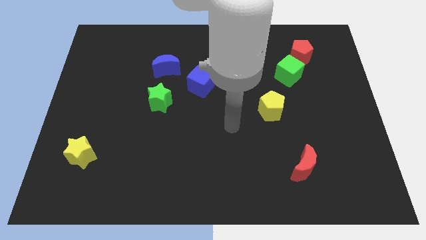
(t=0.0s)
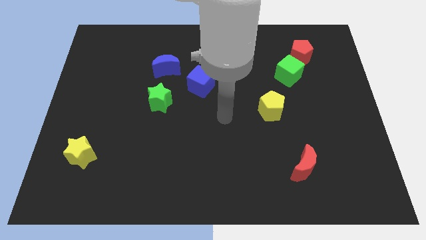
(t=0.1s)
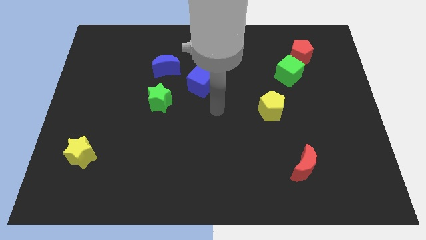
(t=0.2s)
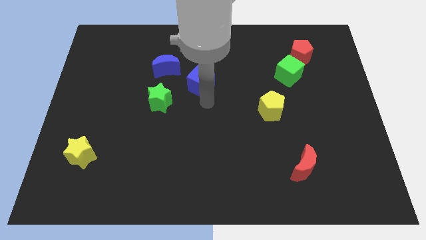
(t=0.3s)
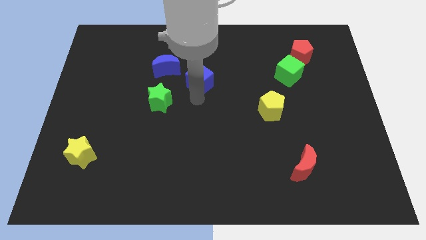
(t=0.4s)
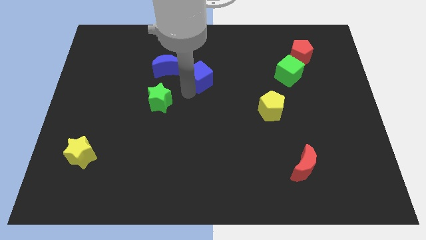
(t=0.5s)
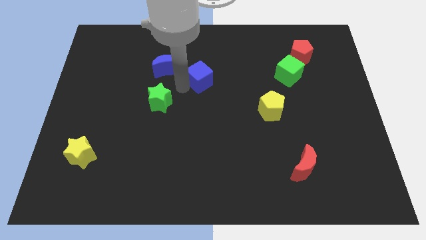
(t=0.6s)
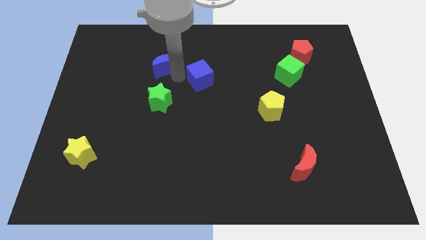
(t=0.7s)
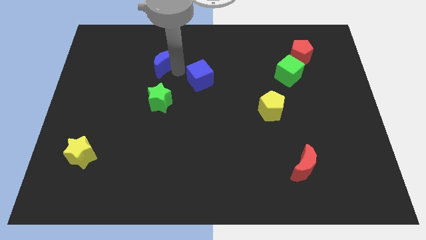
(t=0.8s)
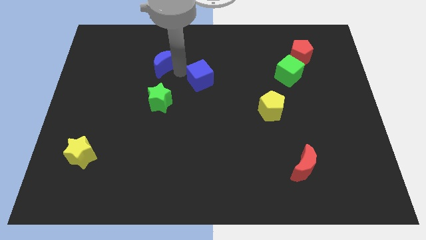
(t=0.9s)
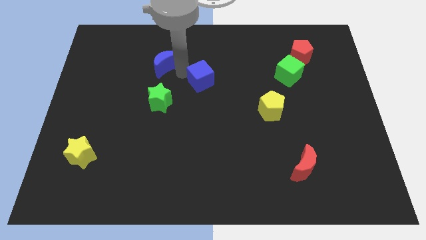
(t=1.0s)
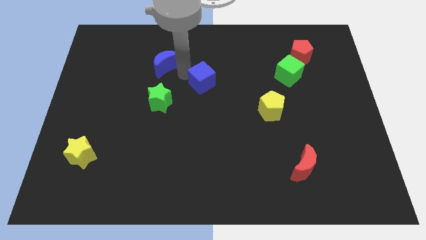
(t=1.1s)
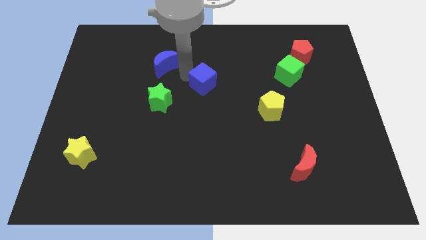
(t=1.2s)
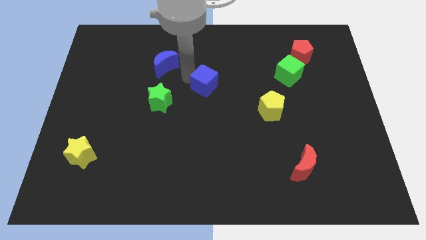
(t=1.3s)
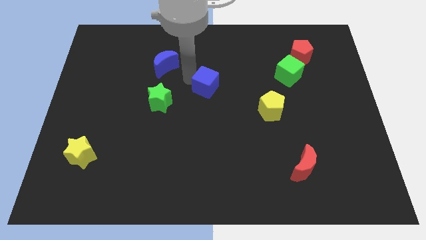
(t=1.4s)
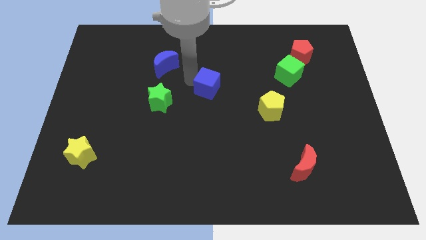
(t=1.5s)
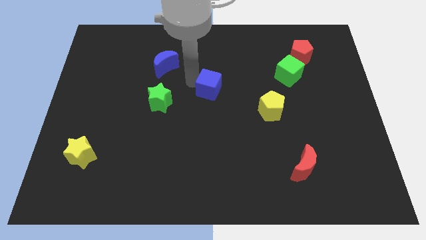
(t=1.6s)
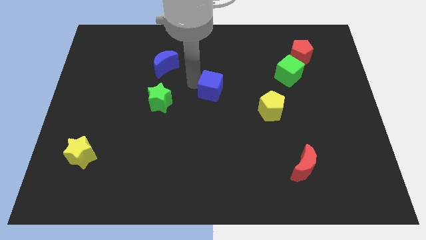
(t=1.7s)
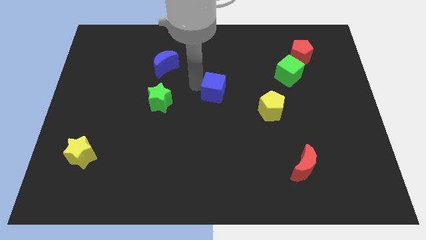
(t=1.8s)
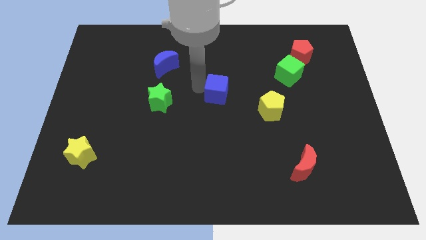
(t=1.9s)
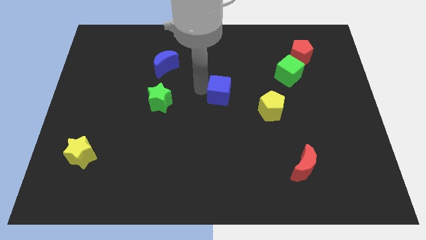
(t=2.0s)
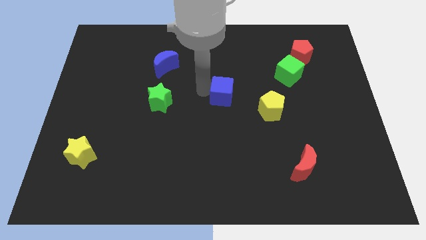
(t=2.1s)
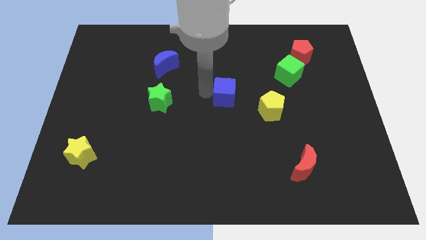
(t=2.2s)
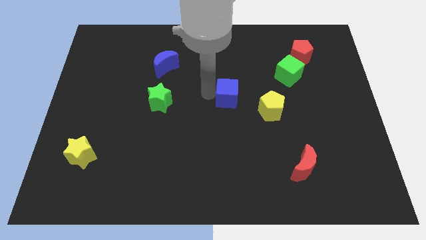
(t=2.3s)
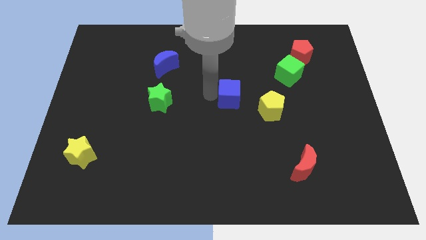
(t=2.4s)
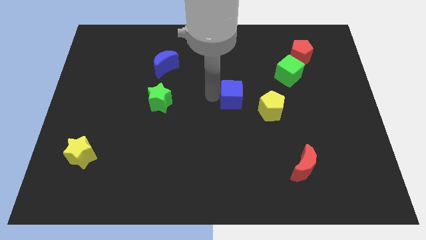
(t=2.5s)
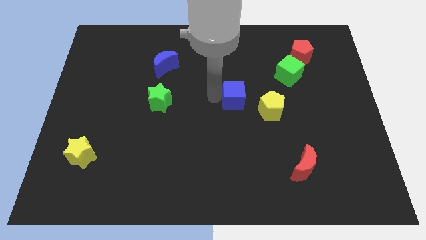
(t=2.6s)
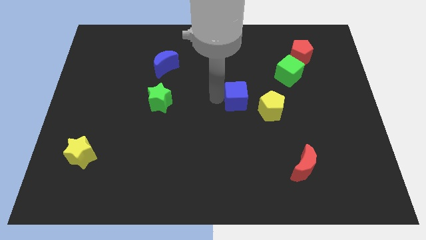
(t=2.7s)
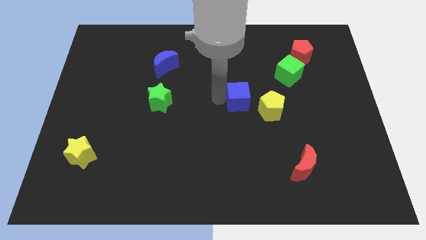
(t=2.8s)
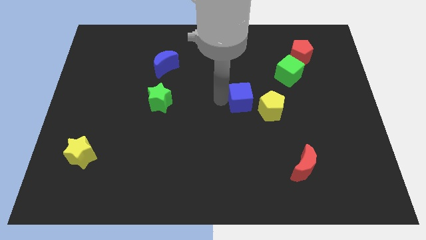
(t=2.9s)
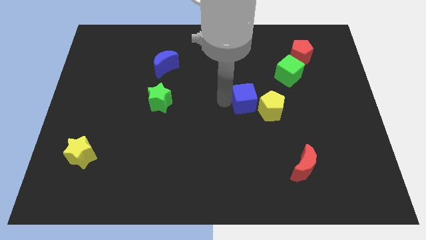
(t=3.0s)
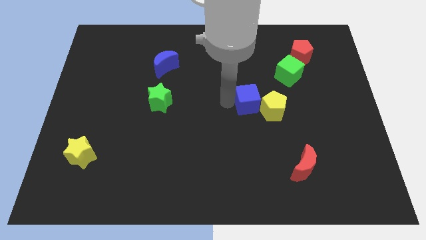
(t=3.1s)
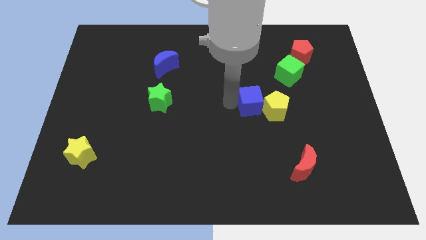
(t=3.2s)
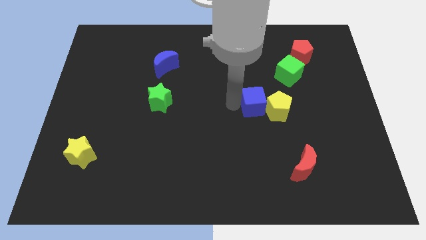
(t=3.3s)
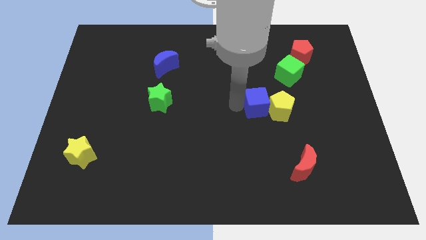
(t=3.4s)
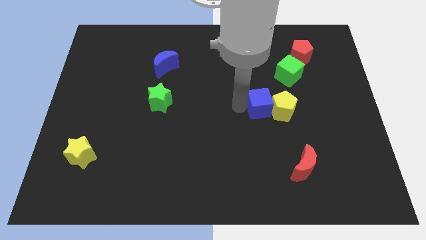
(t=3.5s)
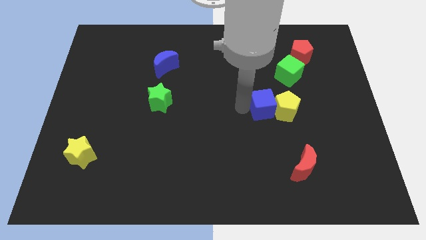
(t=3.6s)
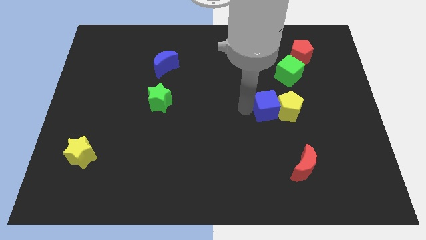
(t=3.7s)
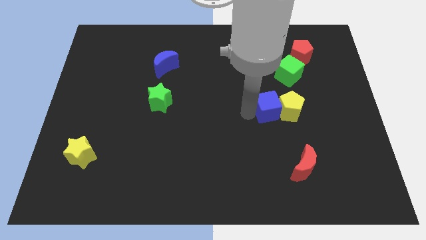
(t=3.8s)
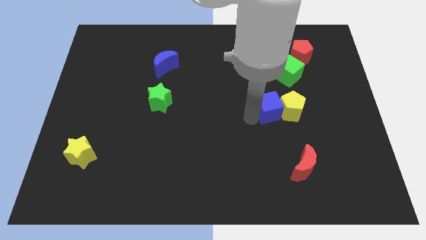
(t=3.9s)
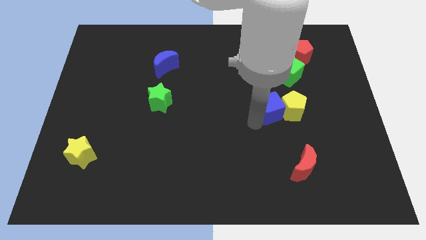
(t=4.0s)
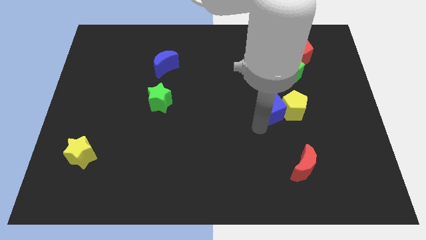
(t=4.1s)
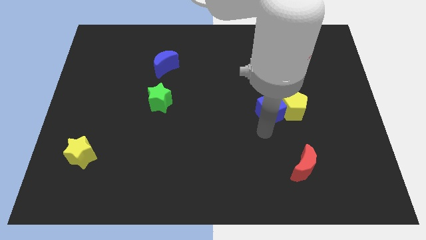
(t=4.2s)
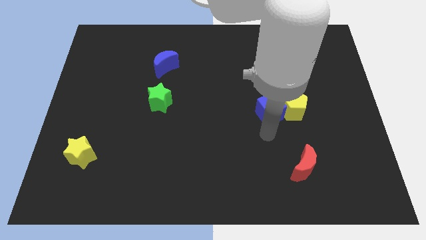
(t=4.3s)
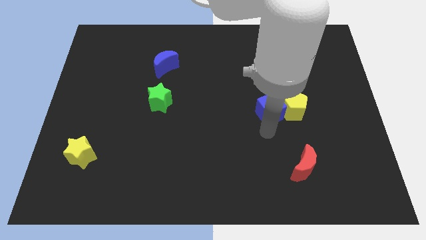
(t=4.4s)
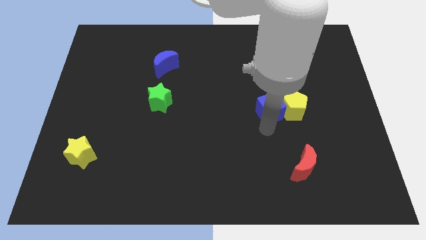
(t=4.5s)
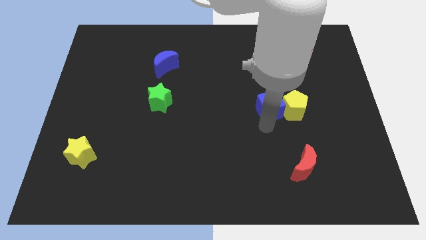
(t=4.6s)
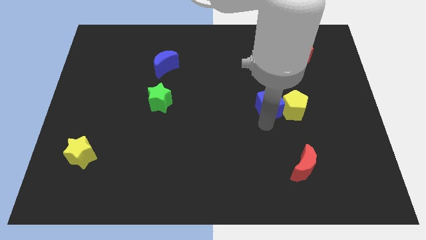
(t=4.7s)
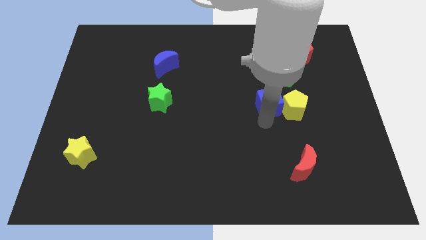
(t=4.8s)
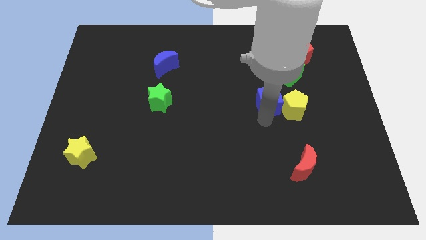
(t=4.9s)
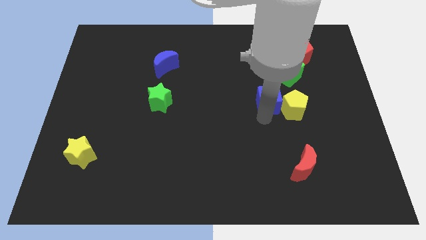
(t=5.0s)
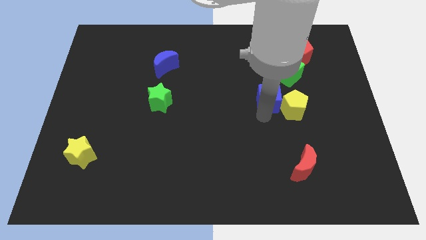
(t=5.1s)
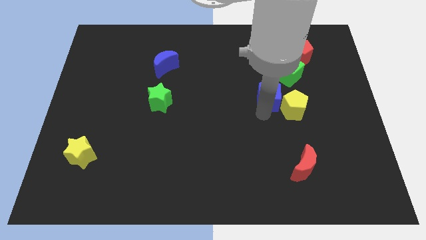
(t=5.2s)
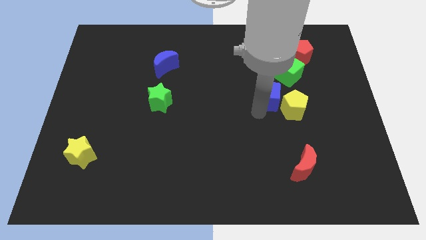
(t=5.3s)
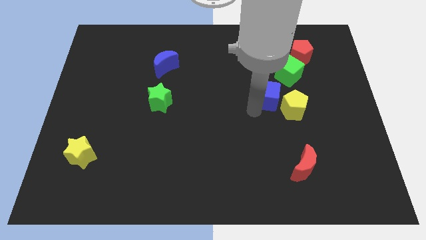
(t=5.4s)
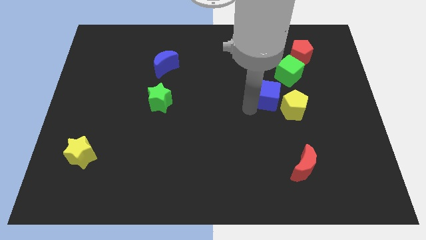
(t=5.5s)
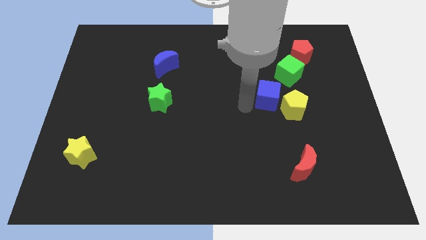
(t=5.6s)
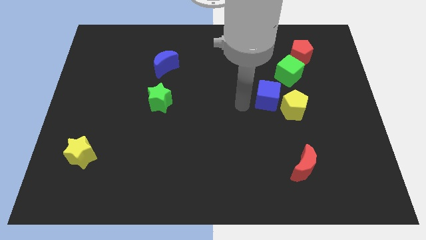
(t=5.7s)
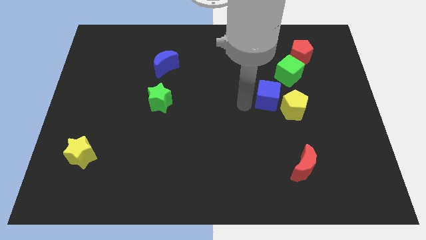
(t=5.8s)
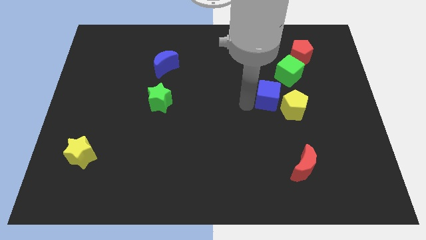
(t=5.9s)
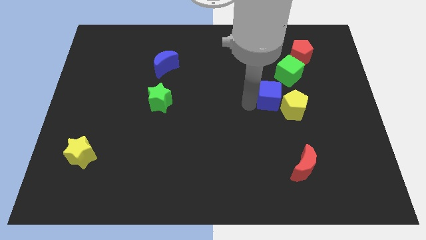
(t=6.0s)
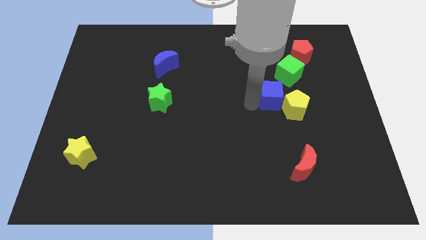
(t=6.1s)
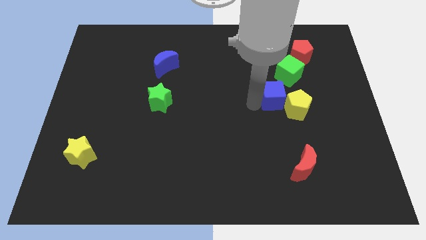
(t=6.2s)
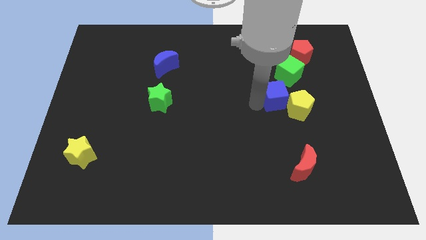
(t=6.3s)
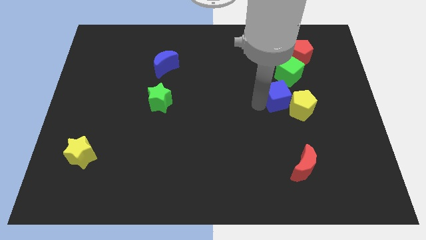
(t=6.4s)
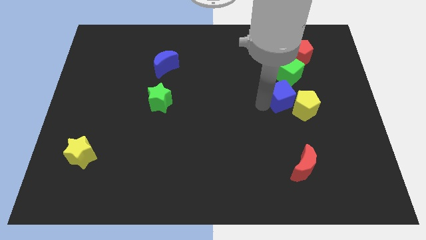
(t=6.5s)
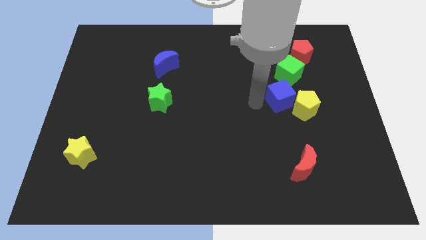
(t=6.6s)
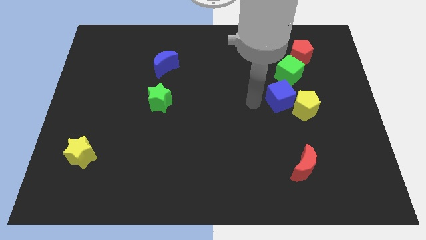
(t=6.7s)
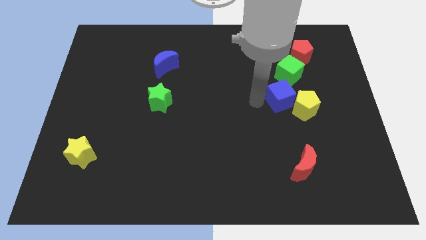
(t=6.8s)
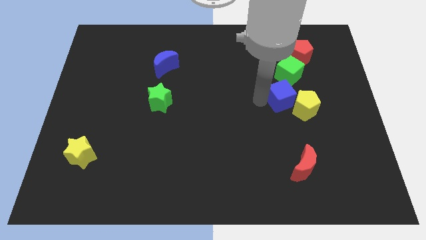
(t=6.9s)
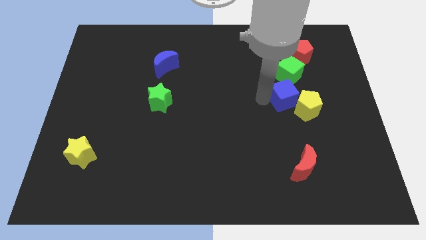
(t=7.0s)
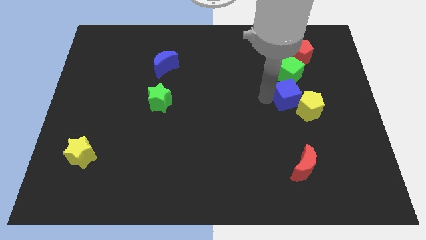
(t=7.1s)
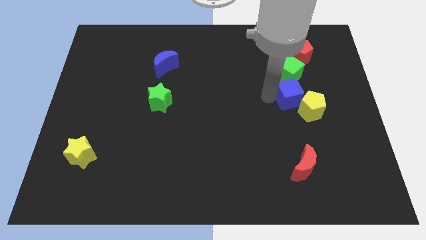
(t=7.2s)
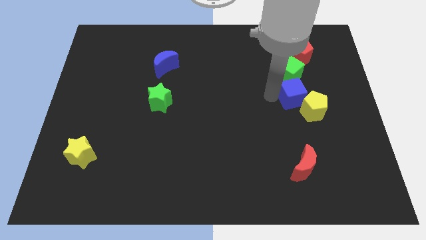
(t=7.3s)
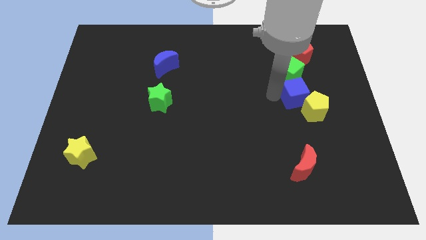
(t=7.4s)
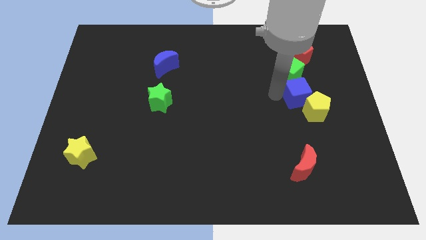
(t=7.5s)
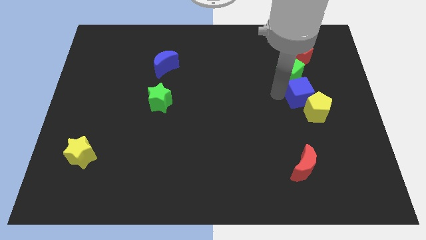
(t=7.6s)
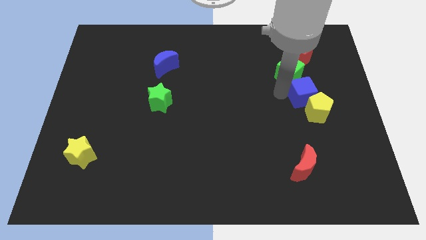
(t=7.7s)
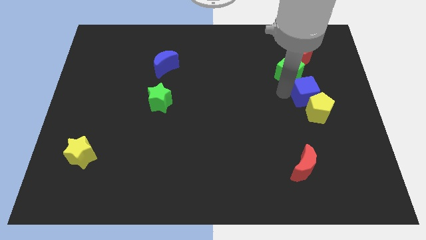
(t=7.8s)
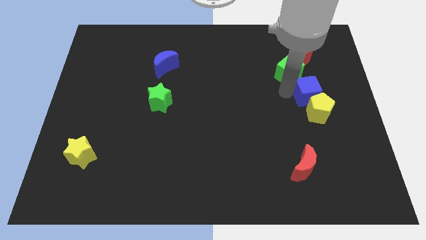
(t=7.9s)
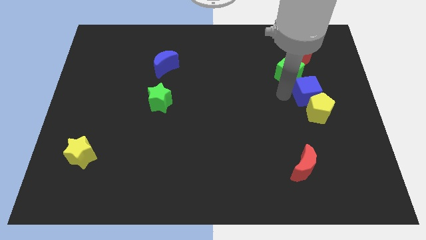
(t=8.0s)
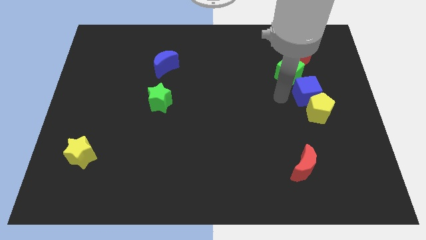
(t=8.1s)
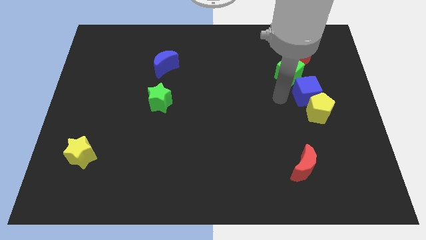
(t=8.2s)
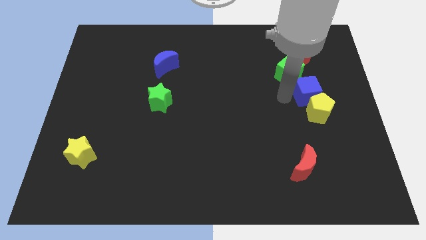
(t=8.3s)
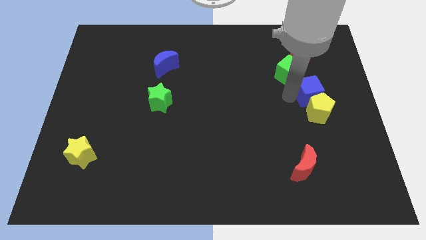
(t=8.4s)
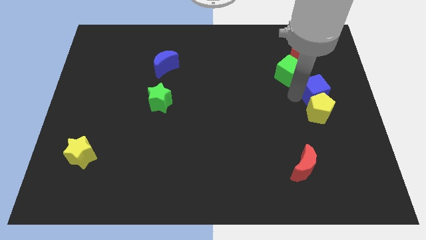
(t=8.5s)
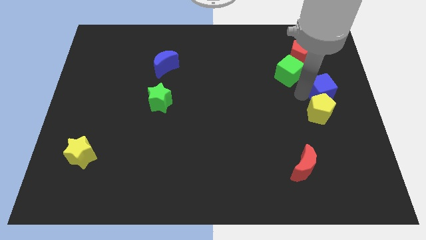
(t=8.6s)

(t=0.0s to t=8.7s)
put the blue cube to the right side of the board
